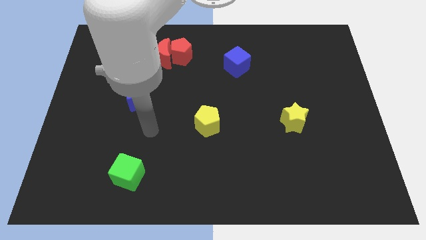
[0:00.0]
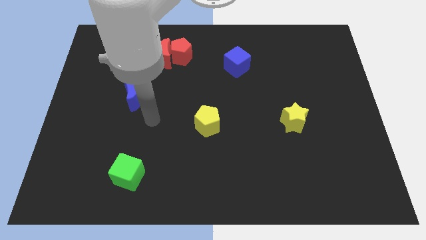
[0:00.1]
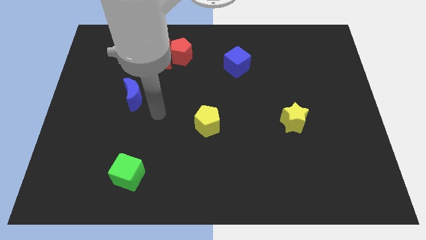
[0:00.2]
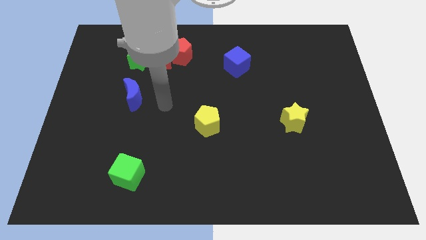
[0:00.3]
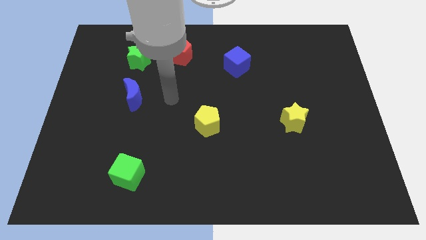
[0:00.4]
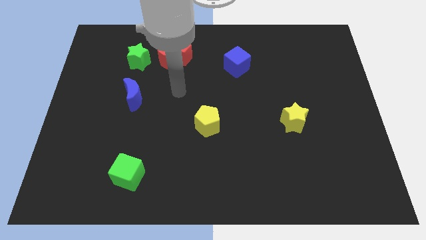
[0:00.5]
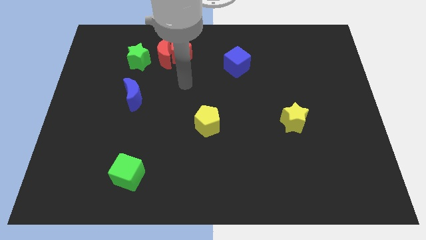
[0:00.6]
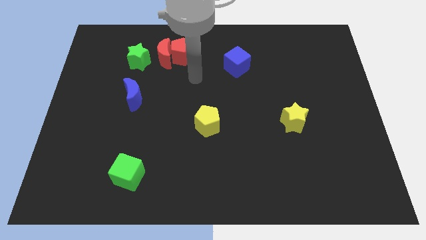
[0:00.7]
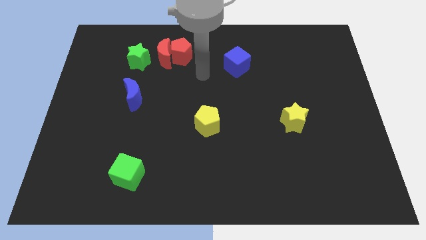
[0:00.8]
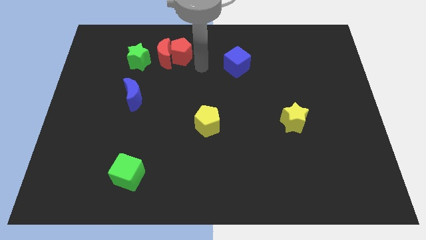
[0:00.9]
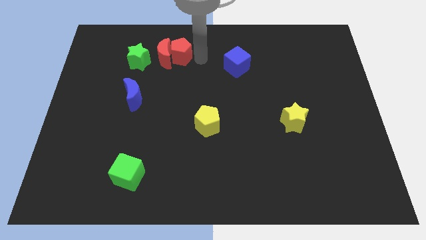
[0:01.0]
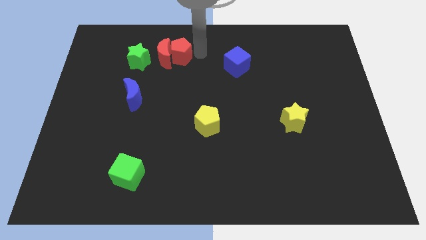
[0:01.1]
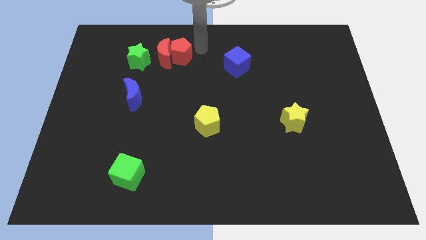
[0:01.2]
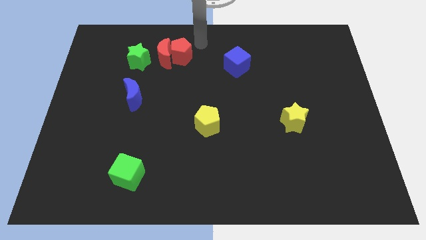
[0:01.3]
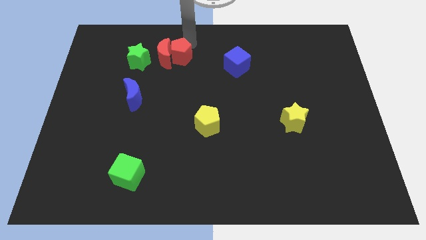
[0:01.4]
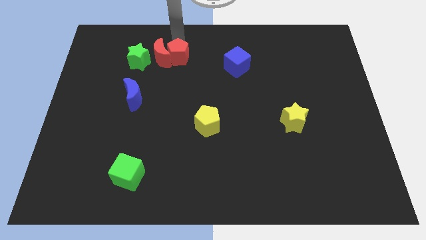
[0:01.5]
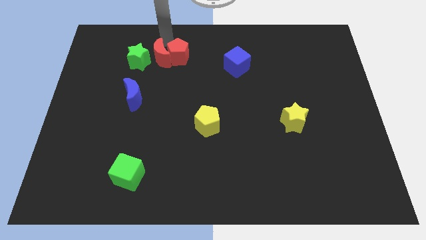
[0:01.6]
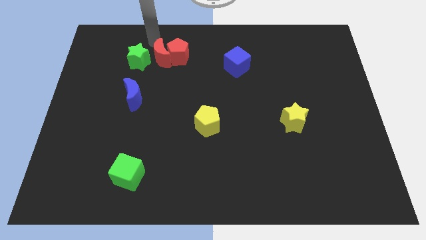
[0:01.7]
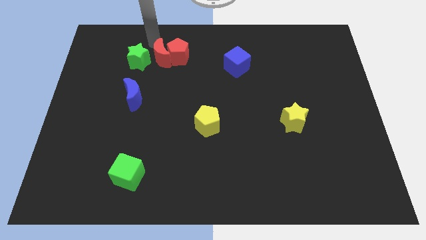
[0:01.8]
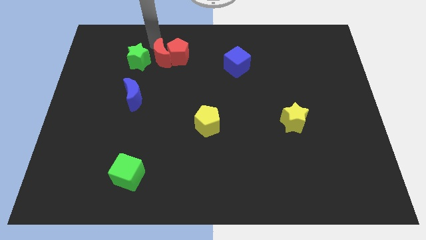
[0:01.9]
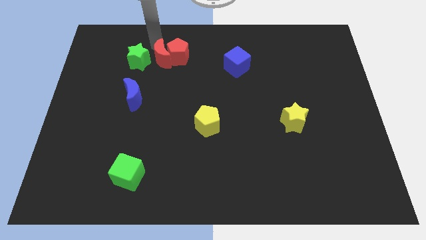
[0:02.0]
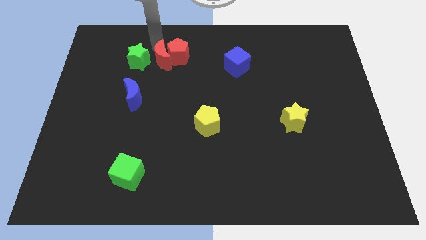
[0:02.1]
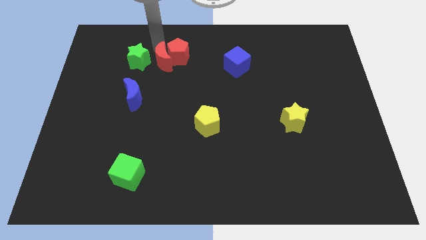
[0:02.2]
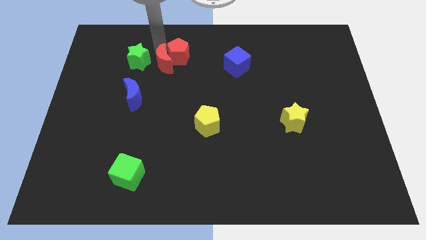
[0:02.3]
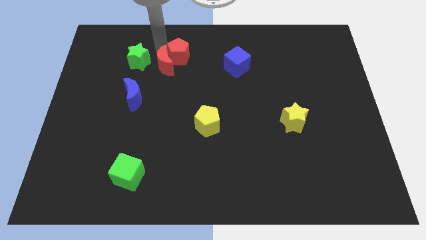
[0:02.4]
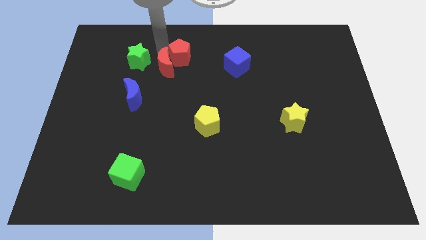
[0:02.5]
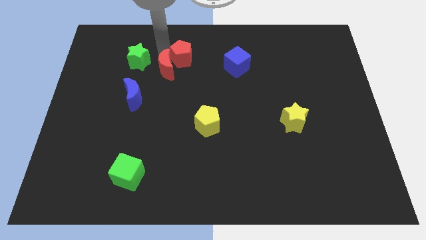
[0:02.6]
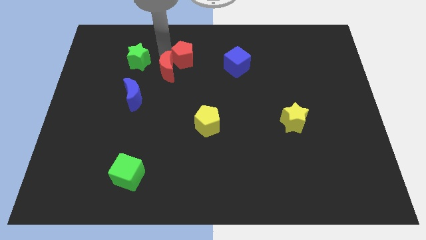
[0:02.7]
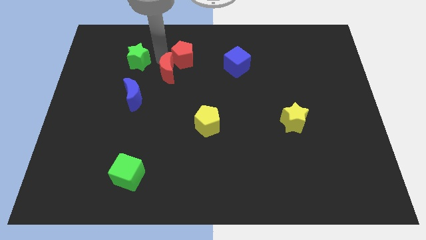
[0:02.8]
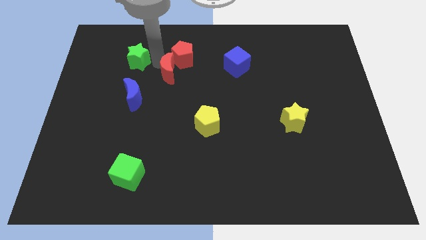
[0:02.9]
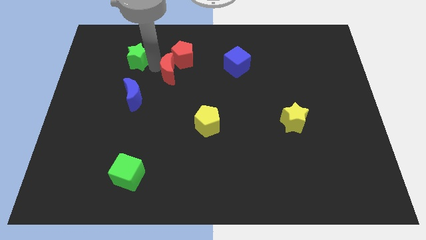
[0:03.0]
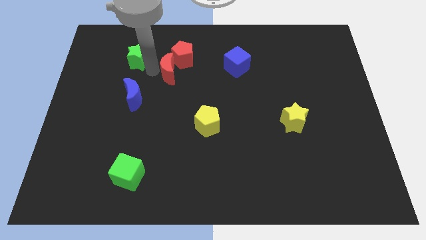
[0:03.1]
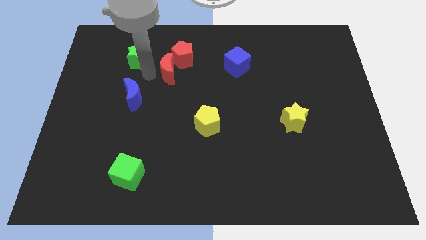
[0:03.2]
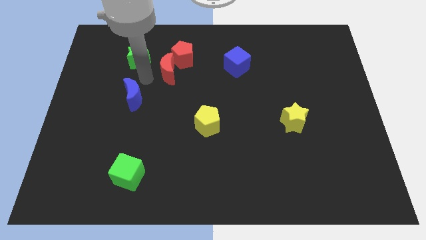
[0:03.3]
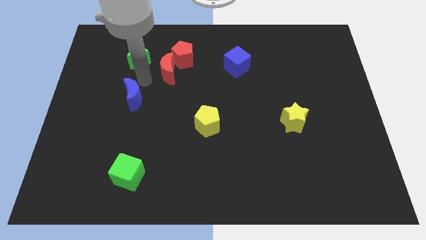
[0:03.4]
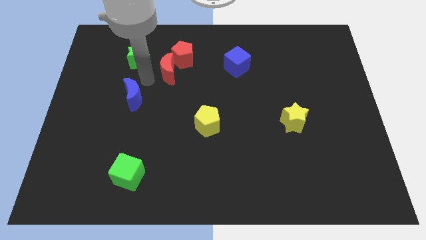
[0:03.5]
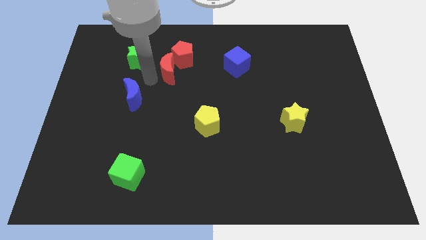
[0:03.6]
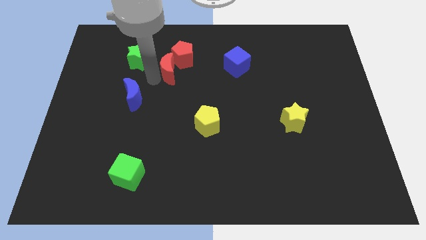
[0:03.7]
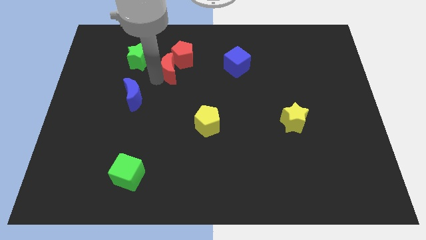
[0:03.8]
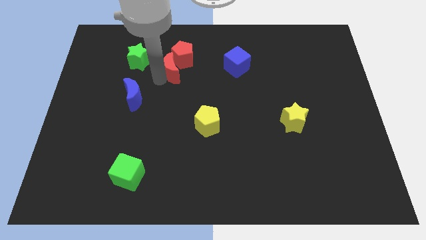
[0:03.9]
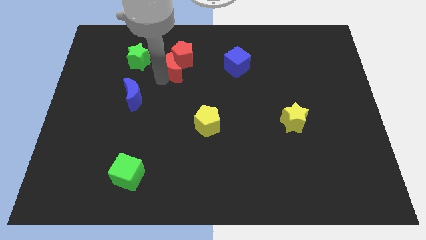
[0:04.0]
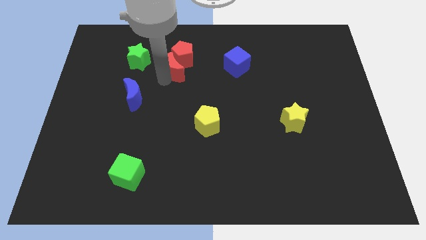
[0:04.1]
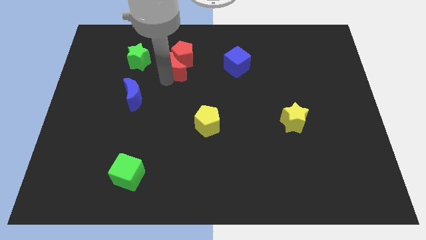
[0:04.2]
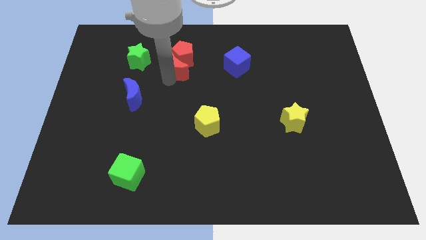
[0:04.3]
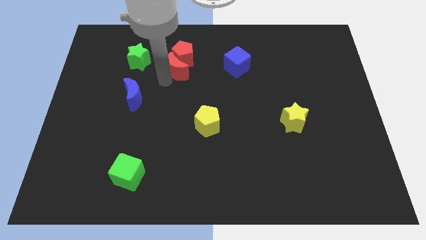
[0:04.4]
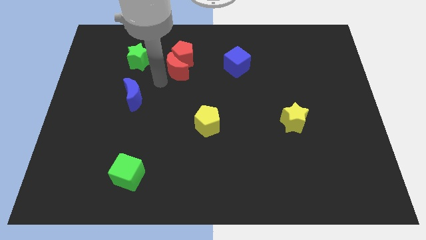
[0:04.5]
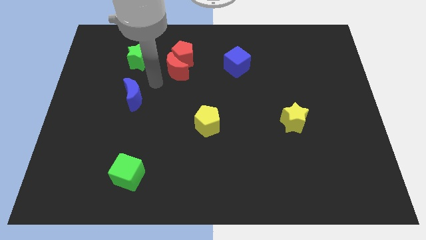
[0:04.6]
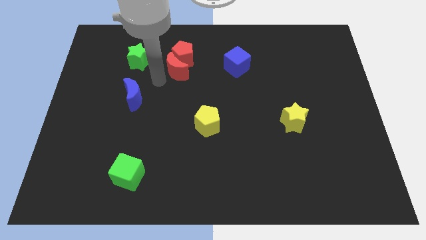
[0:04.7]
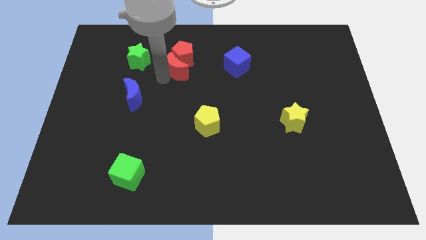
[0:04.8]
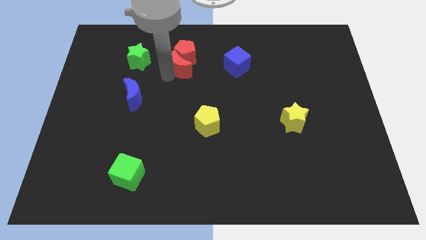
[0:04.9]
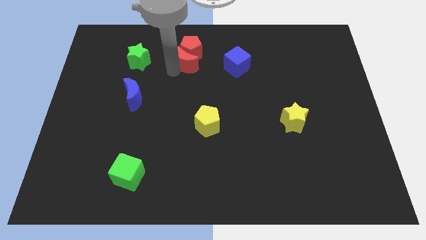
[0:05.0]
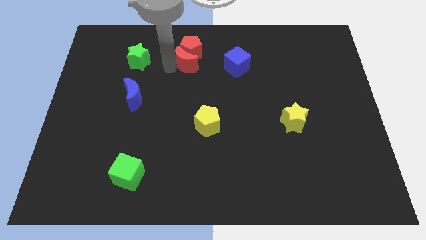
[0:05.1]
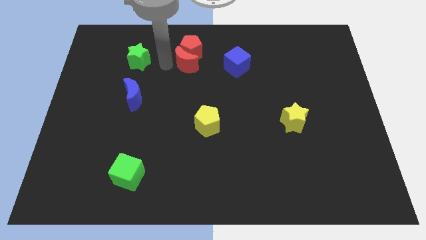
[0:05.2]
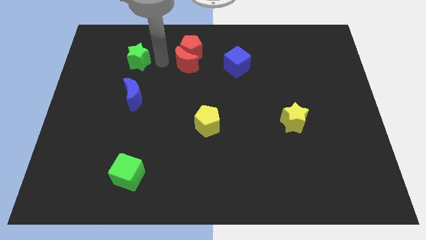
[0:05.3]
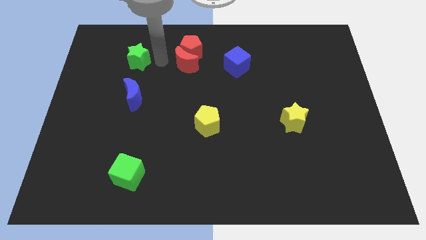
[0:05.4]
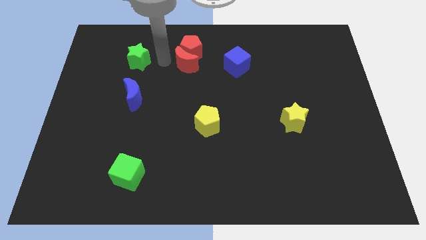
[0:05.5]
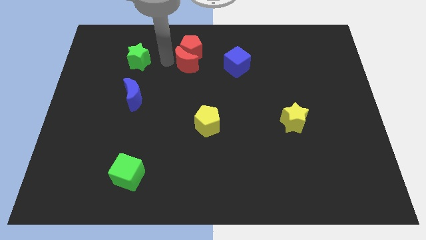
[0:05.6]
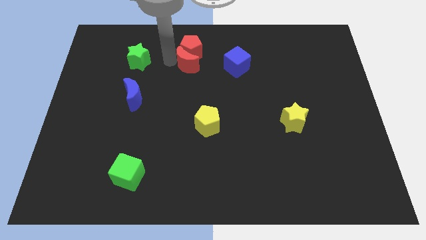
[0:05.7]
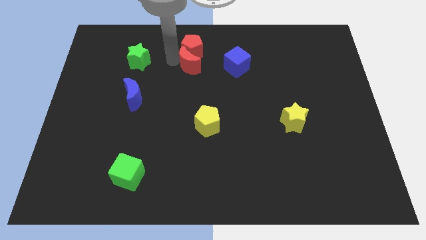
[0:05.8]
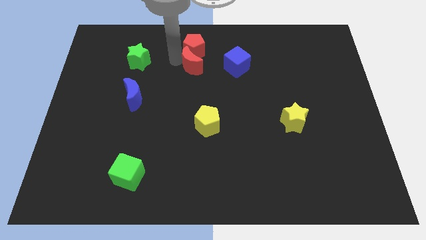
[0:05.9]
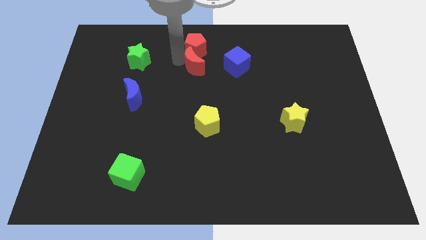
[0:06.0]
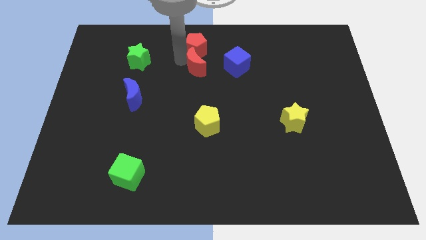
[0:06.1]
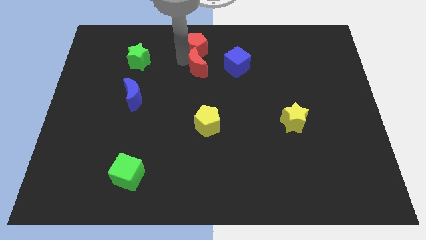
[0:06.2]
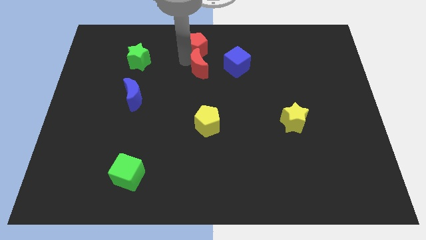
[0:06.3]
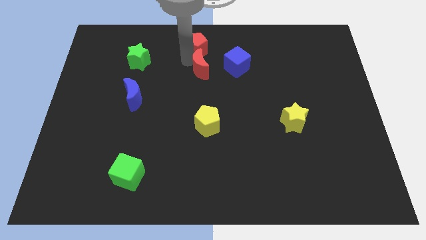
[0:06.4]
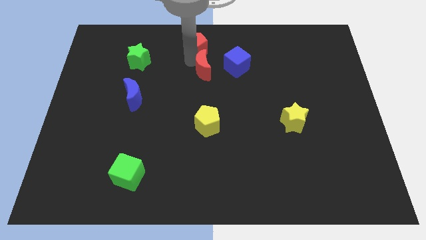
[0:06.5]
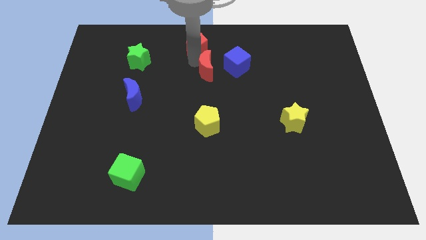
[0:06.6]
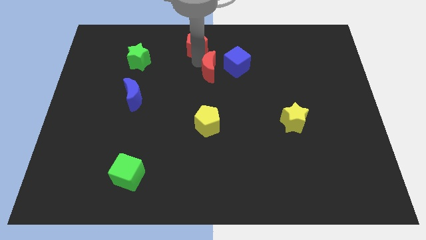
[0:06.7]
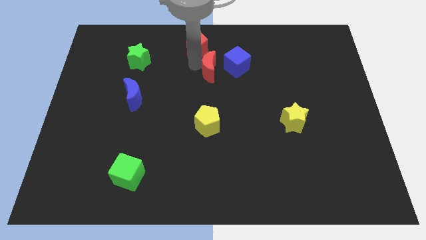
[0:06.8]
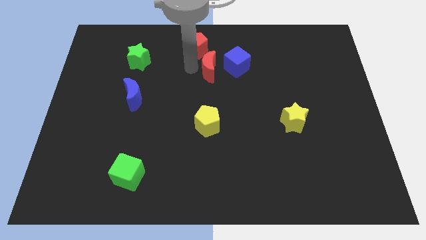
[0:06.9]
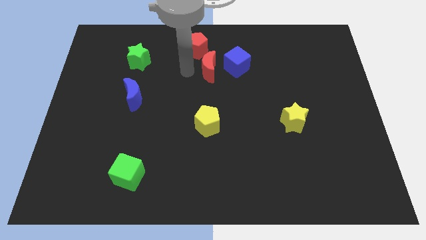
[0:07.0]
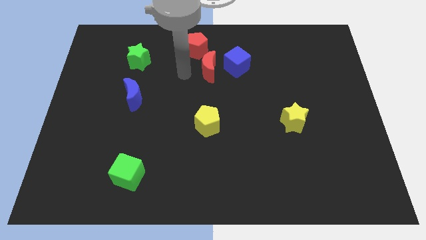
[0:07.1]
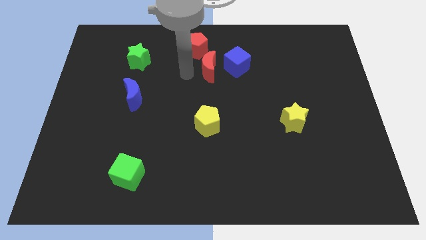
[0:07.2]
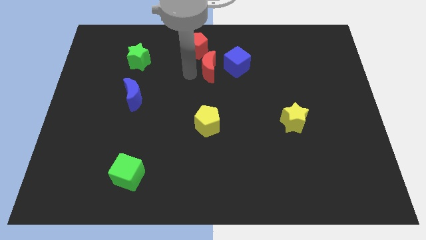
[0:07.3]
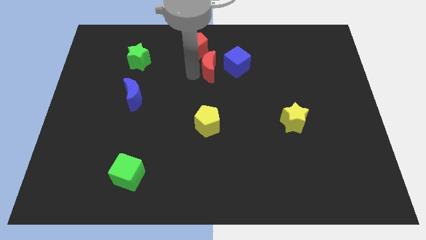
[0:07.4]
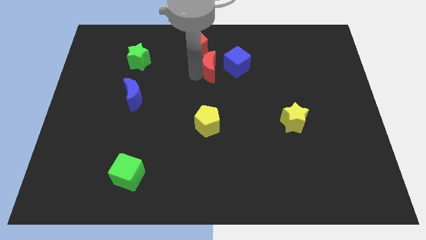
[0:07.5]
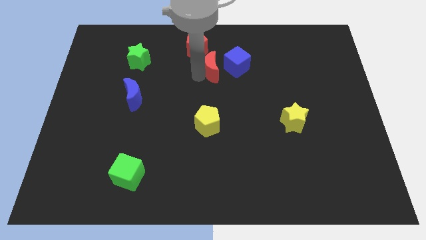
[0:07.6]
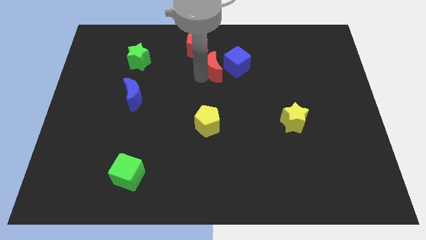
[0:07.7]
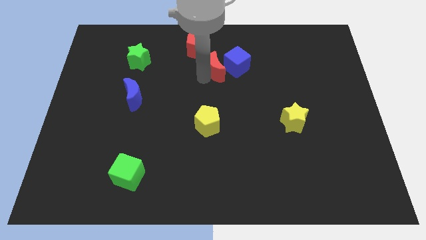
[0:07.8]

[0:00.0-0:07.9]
push the red moon towards the blue cube
